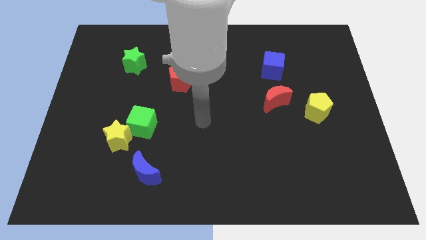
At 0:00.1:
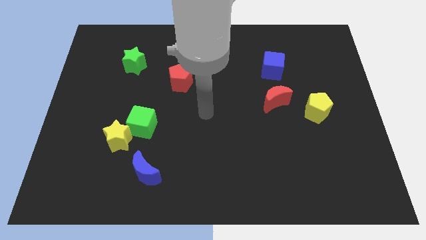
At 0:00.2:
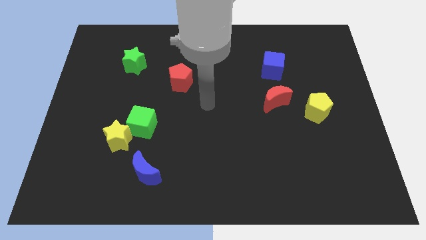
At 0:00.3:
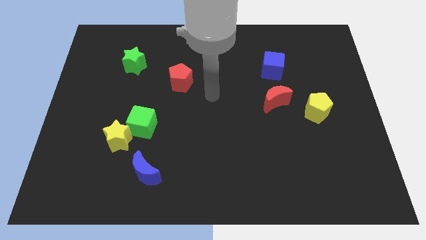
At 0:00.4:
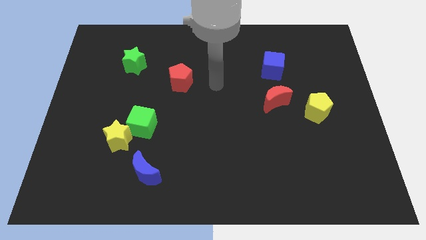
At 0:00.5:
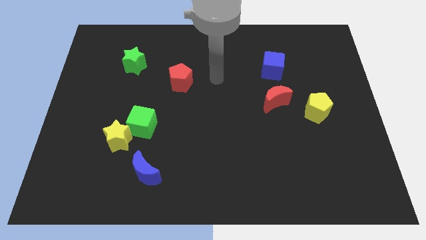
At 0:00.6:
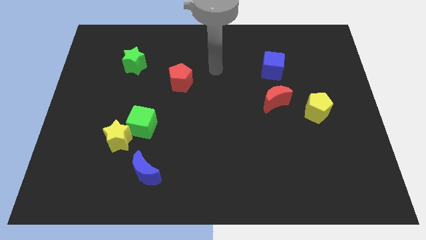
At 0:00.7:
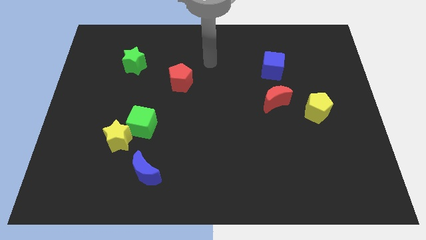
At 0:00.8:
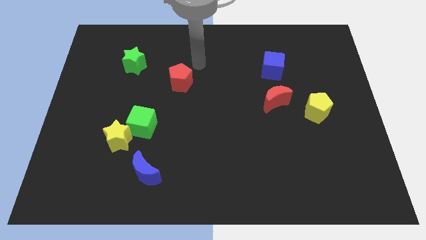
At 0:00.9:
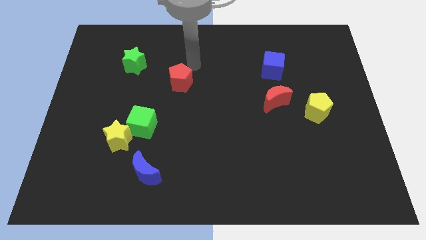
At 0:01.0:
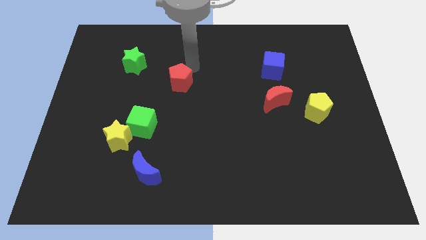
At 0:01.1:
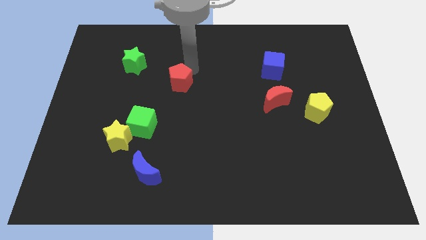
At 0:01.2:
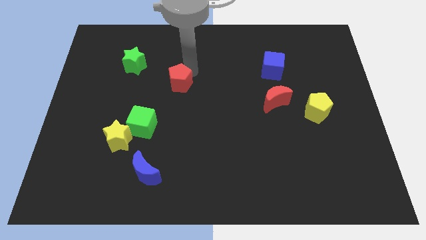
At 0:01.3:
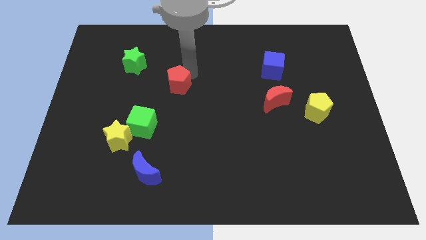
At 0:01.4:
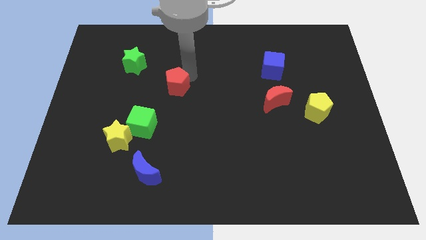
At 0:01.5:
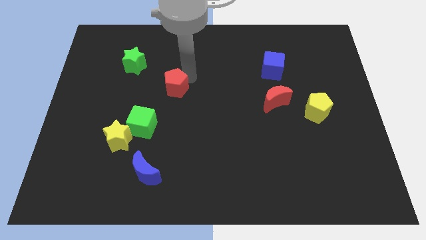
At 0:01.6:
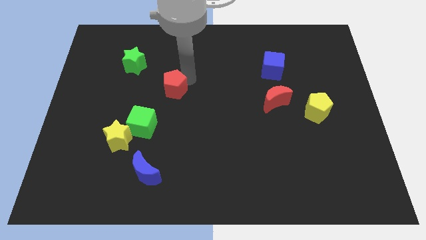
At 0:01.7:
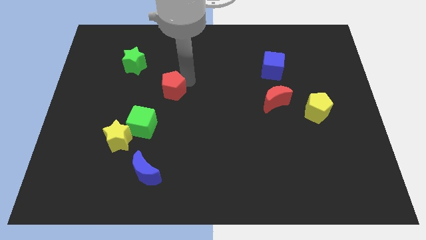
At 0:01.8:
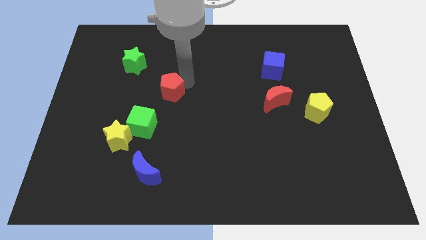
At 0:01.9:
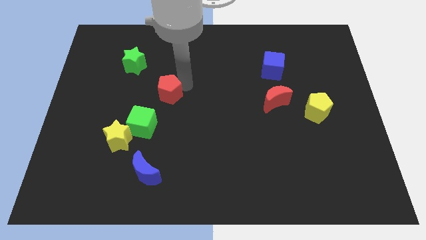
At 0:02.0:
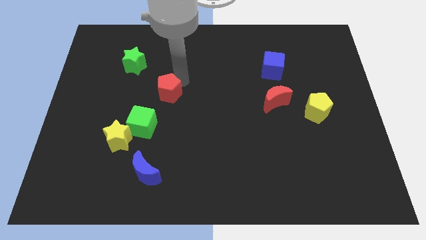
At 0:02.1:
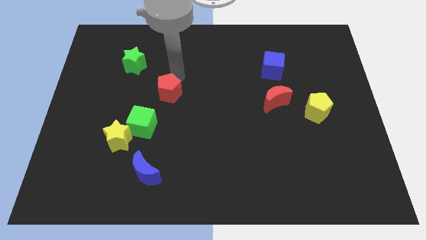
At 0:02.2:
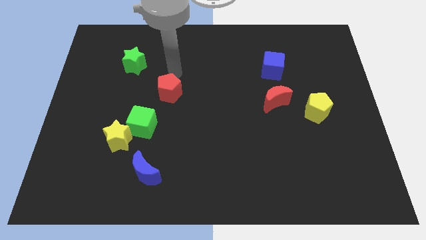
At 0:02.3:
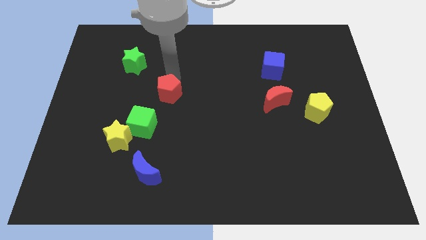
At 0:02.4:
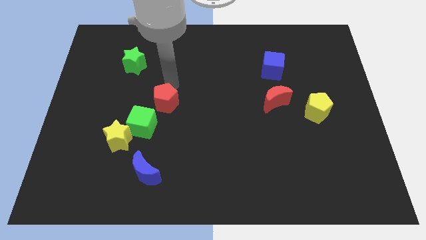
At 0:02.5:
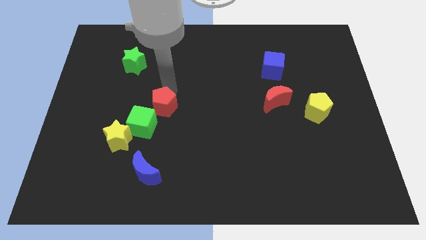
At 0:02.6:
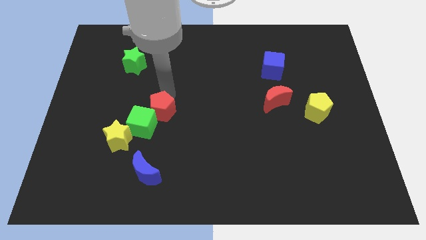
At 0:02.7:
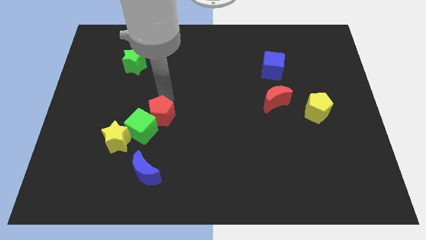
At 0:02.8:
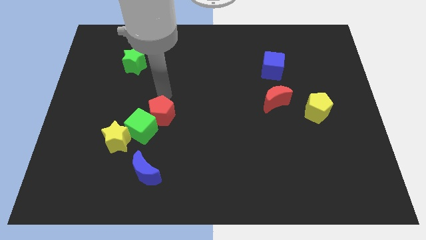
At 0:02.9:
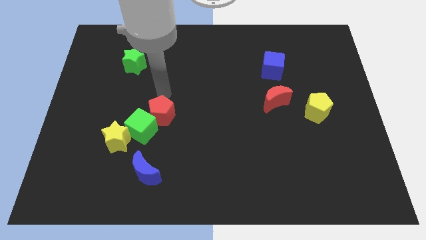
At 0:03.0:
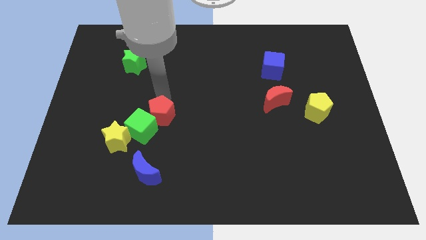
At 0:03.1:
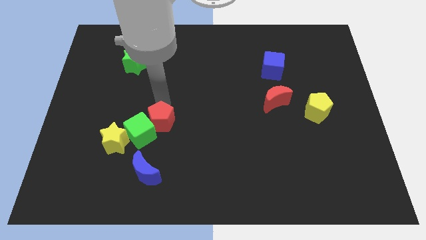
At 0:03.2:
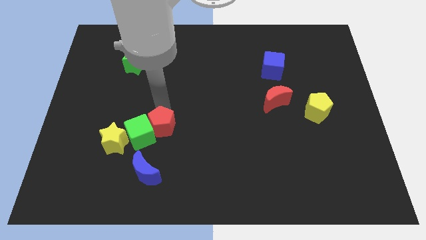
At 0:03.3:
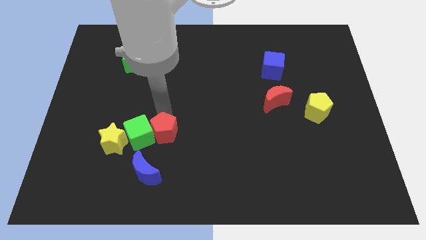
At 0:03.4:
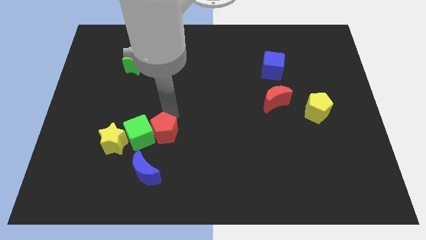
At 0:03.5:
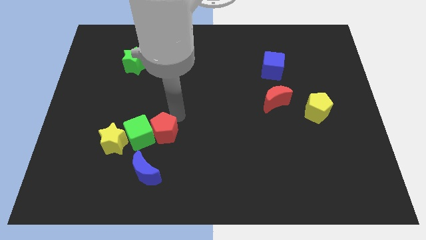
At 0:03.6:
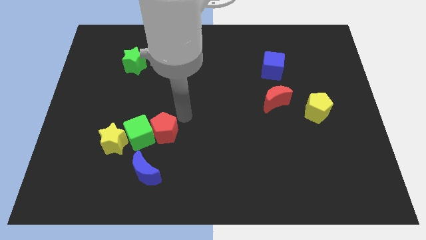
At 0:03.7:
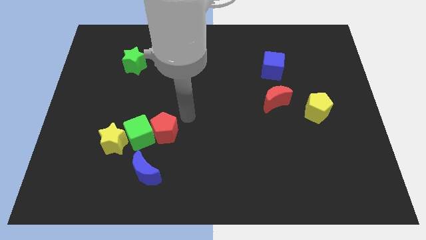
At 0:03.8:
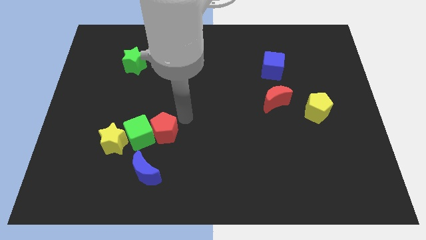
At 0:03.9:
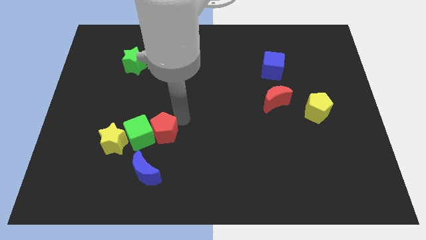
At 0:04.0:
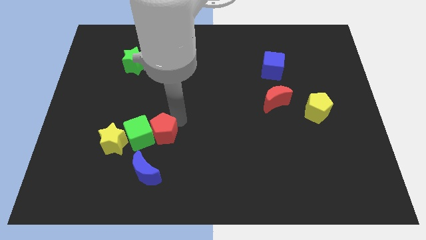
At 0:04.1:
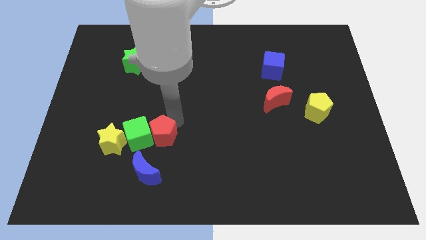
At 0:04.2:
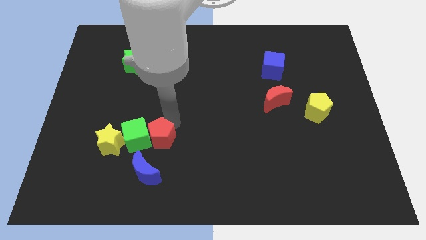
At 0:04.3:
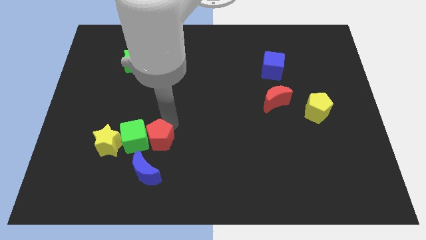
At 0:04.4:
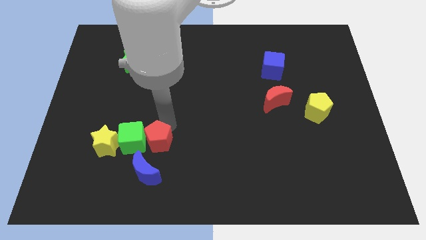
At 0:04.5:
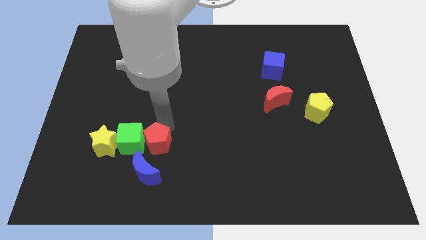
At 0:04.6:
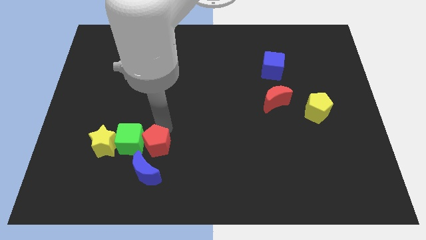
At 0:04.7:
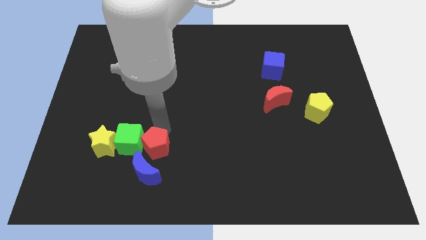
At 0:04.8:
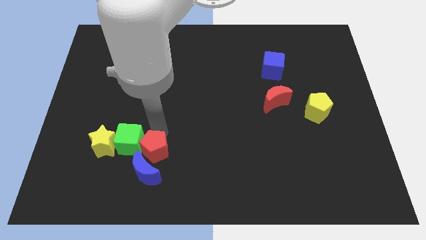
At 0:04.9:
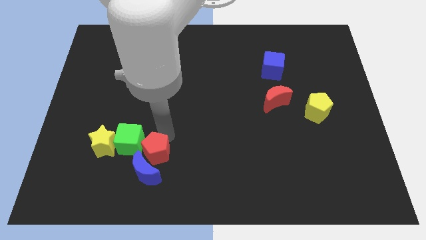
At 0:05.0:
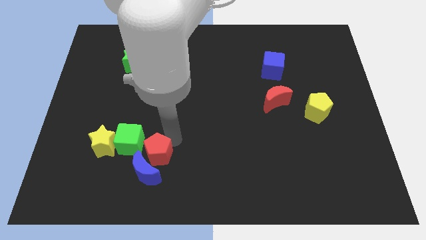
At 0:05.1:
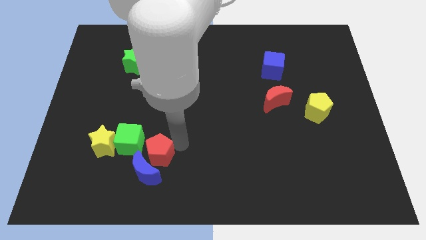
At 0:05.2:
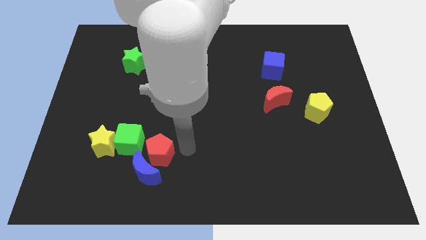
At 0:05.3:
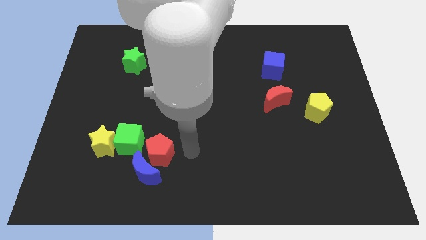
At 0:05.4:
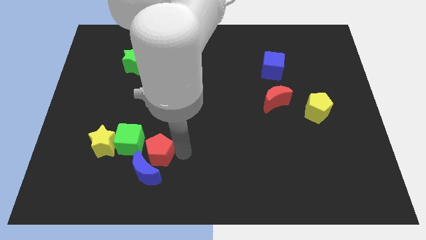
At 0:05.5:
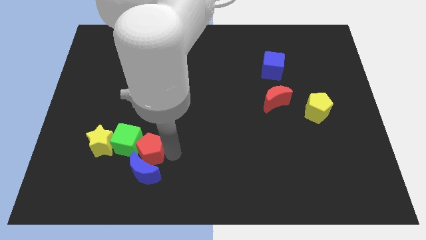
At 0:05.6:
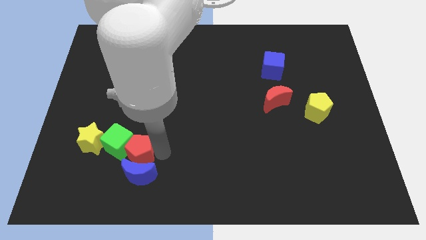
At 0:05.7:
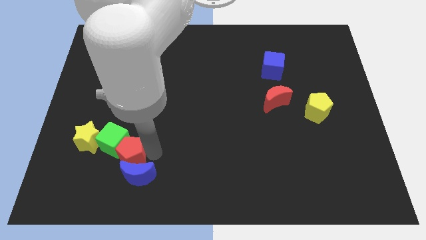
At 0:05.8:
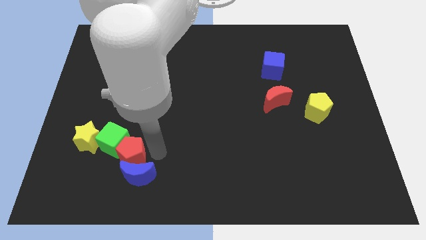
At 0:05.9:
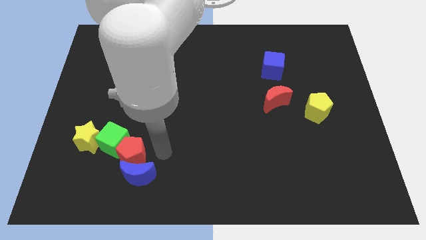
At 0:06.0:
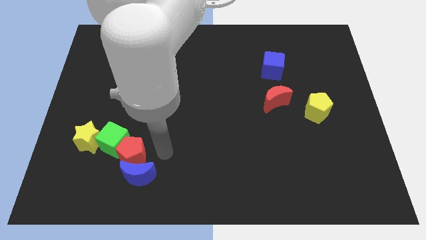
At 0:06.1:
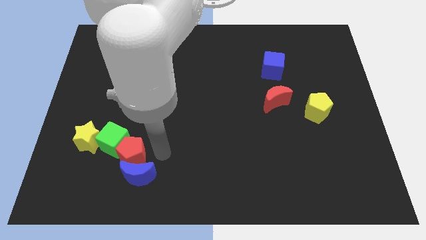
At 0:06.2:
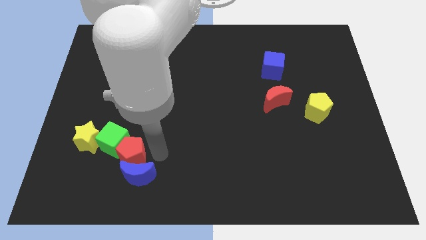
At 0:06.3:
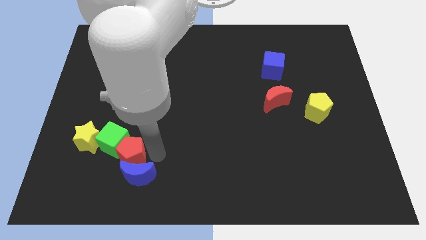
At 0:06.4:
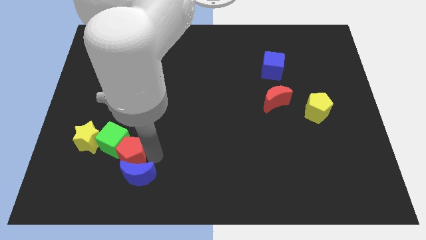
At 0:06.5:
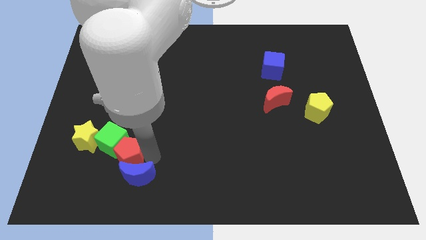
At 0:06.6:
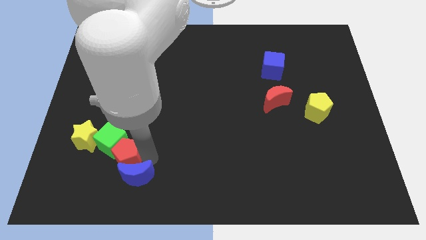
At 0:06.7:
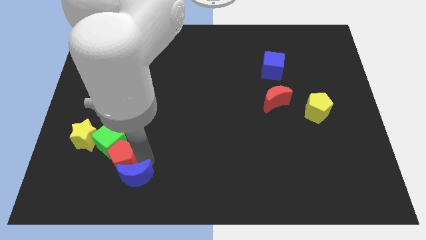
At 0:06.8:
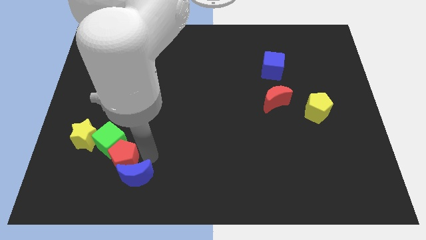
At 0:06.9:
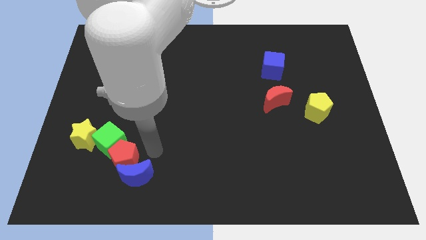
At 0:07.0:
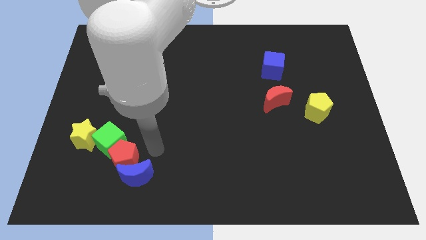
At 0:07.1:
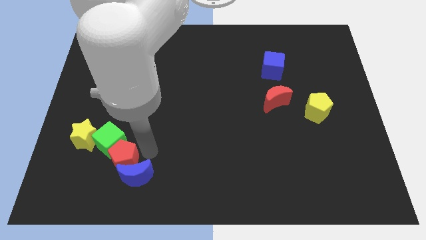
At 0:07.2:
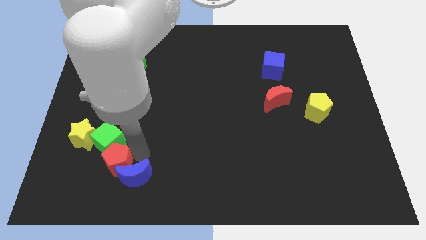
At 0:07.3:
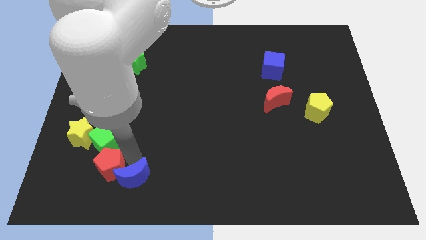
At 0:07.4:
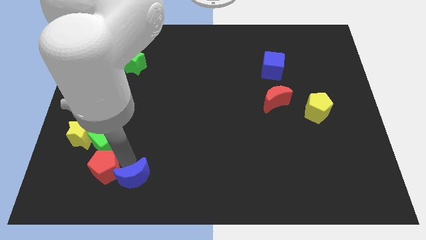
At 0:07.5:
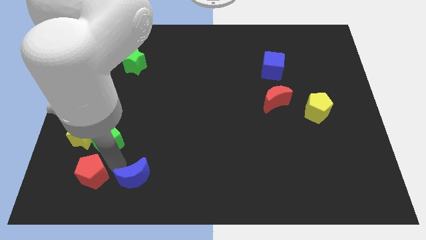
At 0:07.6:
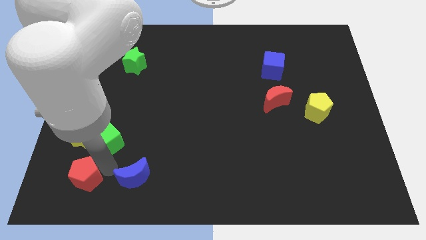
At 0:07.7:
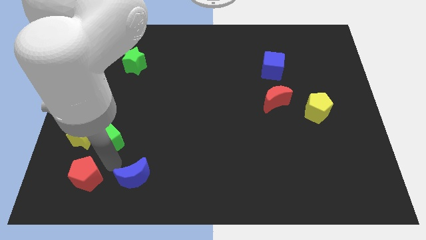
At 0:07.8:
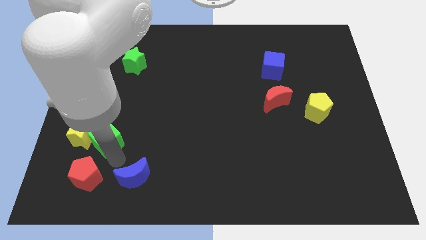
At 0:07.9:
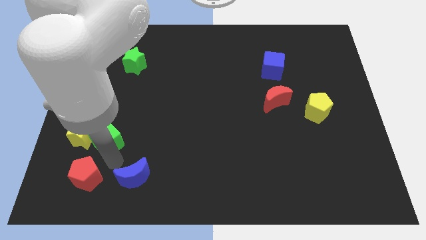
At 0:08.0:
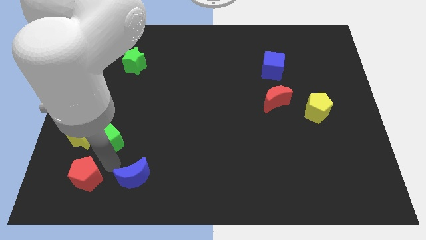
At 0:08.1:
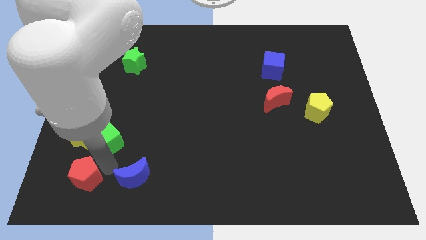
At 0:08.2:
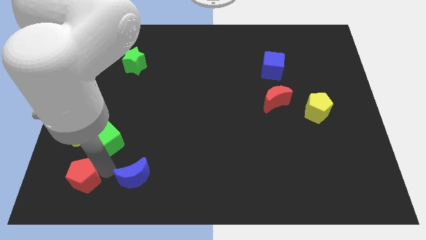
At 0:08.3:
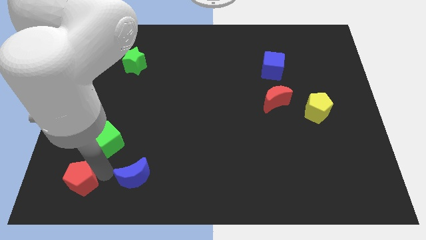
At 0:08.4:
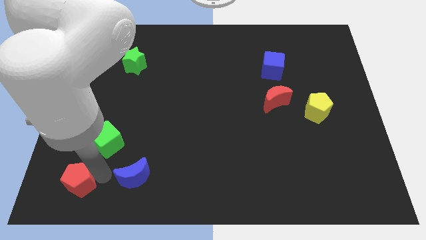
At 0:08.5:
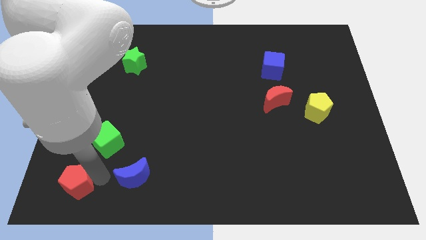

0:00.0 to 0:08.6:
move the red pentagon to the lower left corner
